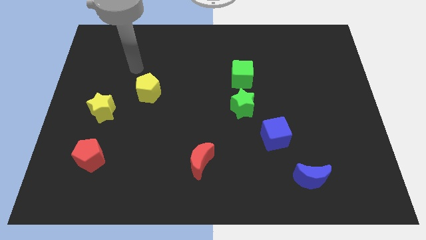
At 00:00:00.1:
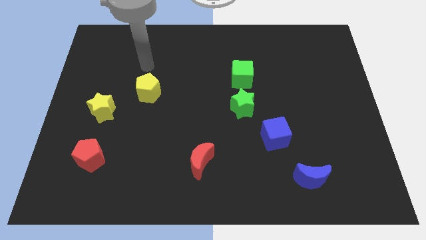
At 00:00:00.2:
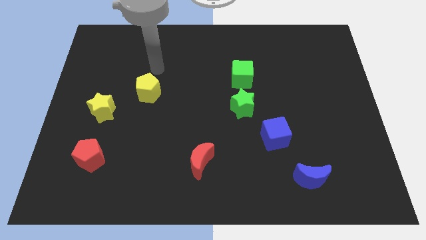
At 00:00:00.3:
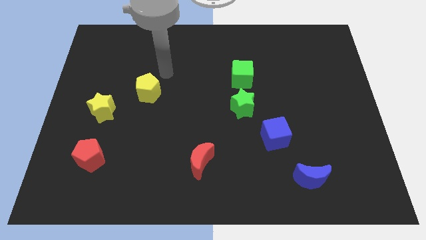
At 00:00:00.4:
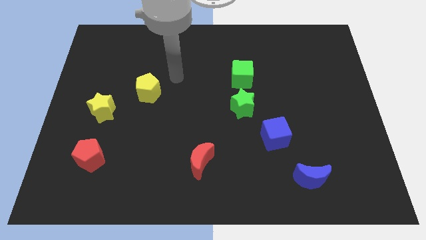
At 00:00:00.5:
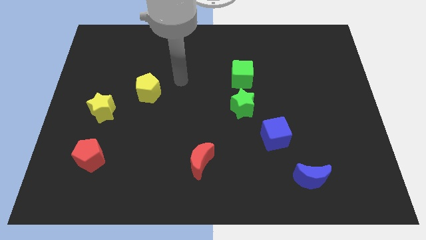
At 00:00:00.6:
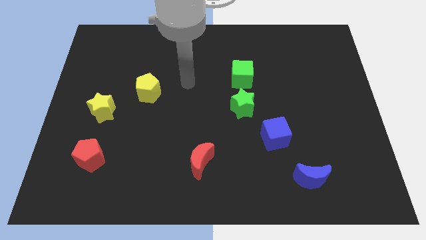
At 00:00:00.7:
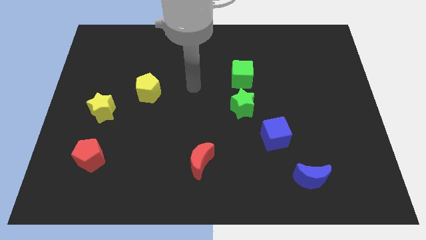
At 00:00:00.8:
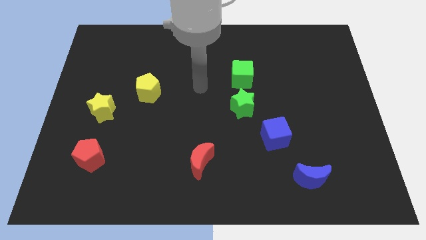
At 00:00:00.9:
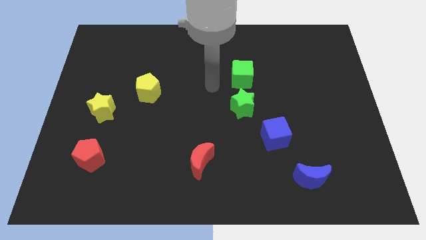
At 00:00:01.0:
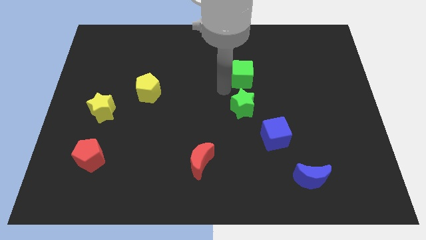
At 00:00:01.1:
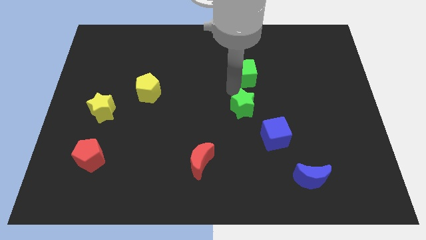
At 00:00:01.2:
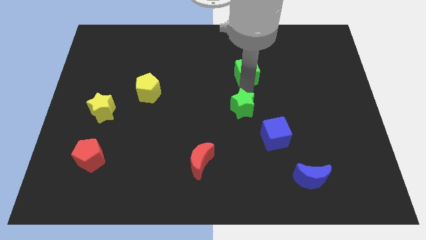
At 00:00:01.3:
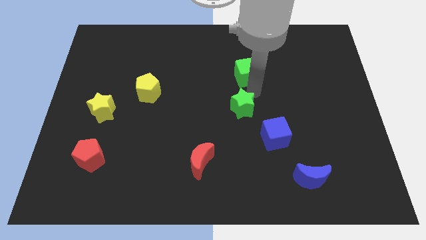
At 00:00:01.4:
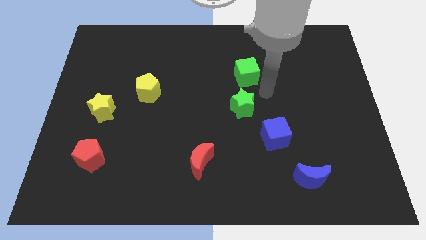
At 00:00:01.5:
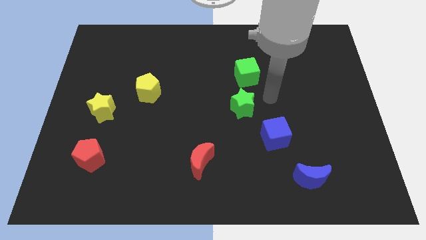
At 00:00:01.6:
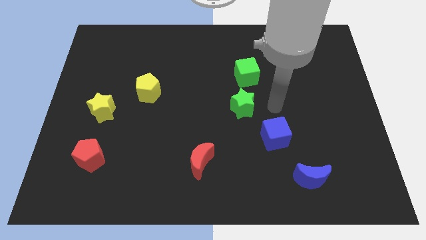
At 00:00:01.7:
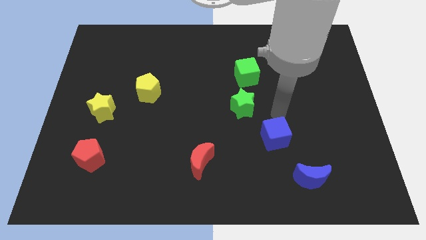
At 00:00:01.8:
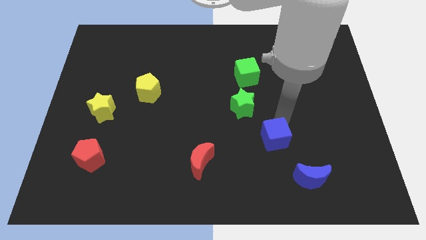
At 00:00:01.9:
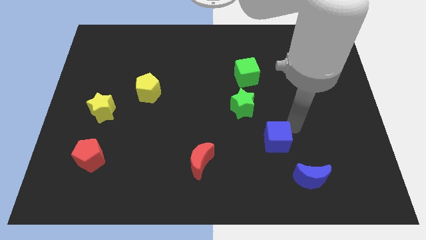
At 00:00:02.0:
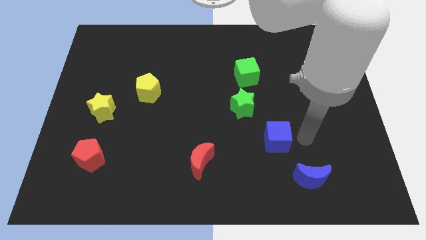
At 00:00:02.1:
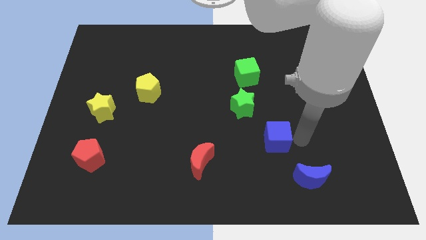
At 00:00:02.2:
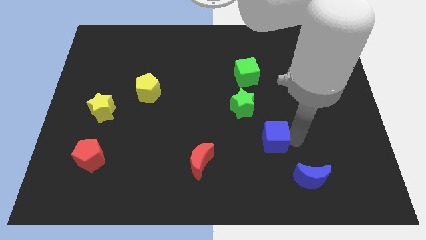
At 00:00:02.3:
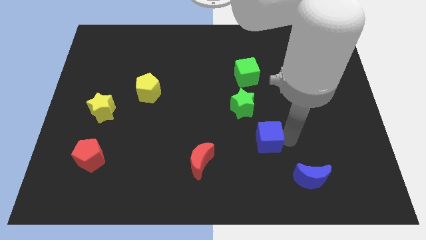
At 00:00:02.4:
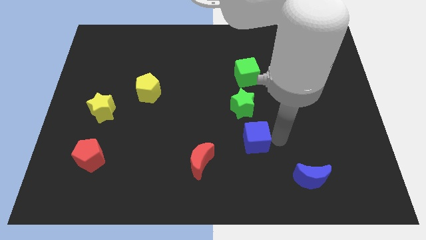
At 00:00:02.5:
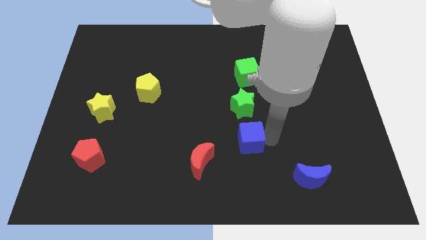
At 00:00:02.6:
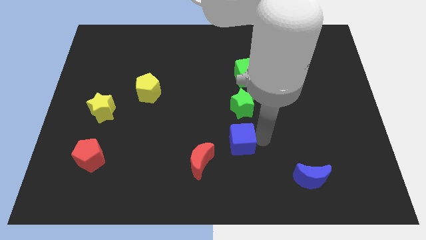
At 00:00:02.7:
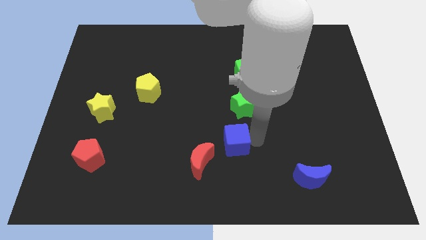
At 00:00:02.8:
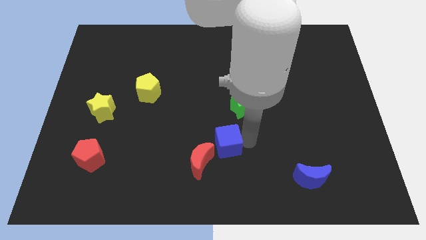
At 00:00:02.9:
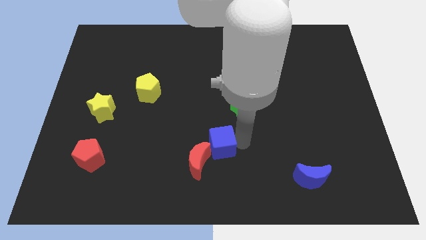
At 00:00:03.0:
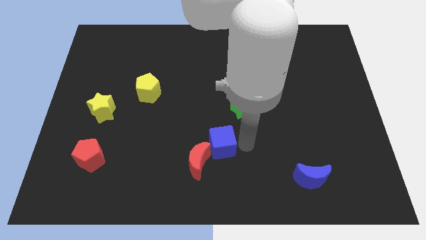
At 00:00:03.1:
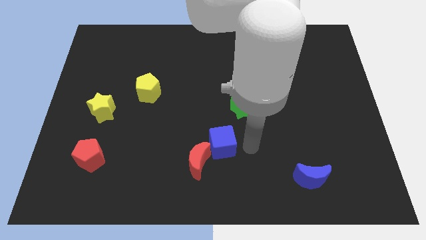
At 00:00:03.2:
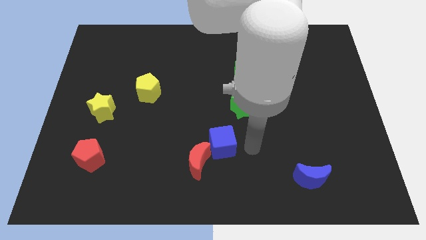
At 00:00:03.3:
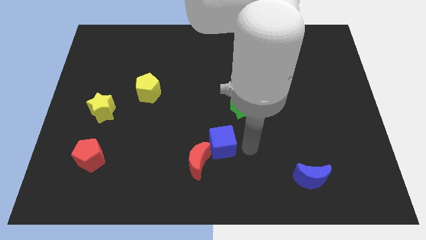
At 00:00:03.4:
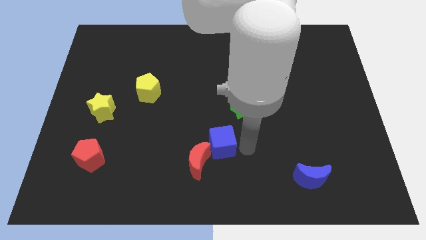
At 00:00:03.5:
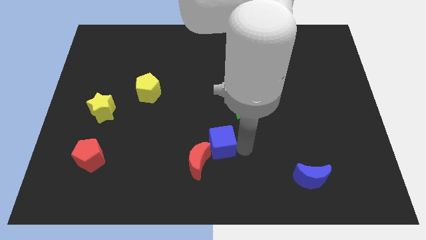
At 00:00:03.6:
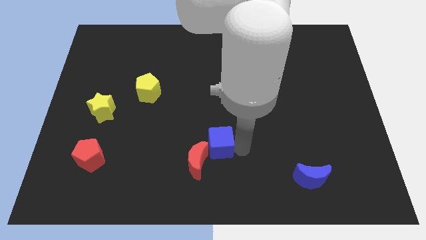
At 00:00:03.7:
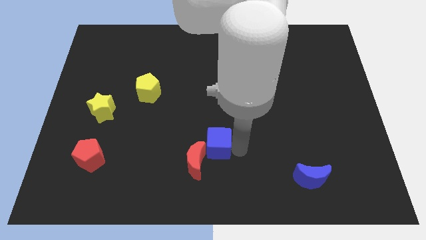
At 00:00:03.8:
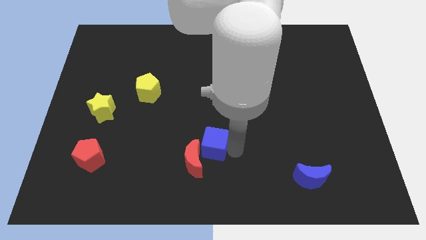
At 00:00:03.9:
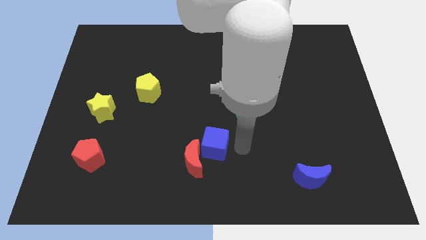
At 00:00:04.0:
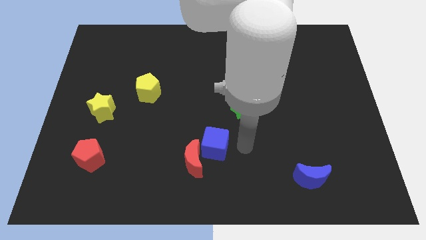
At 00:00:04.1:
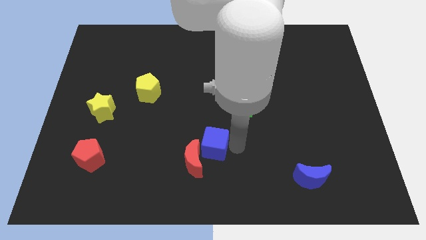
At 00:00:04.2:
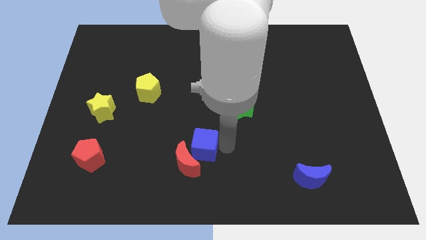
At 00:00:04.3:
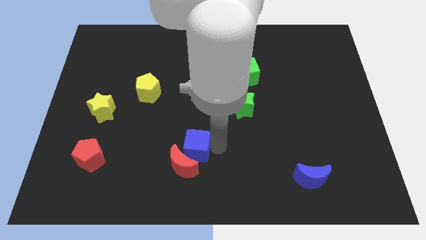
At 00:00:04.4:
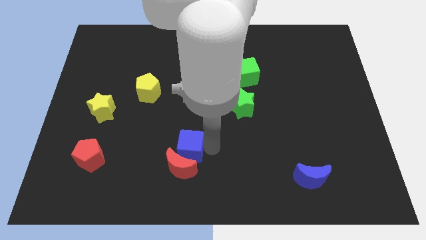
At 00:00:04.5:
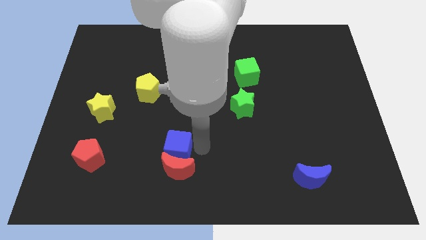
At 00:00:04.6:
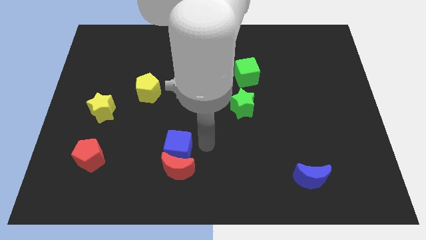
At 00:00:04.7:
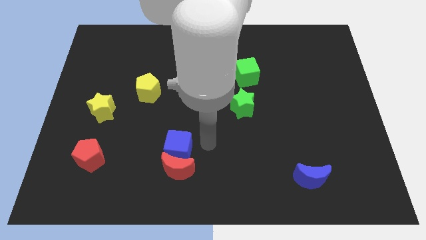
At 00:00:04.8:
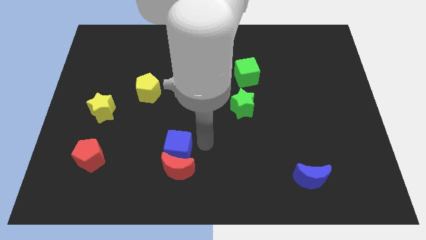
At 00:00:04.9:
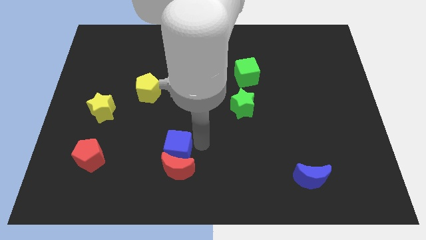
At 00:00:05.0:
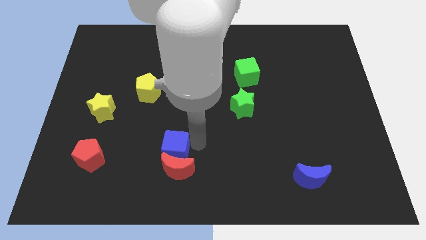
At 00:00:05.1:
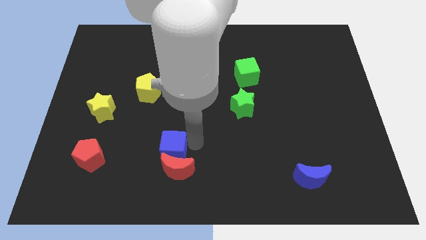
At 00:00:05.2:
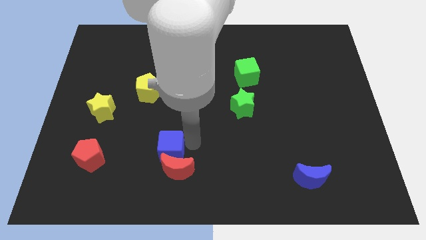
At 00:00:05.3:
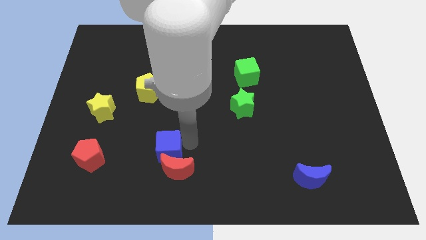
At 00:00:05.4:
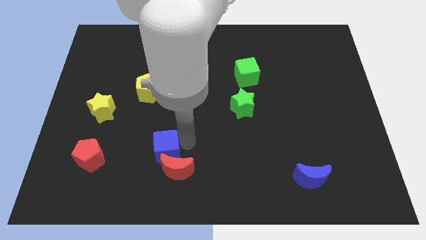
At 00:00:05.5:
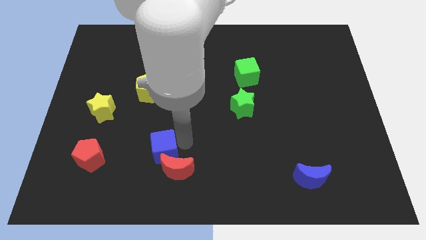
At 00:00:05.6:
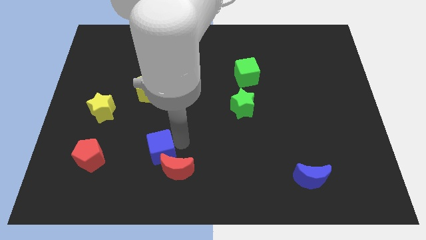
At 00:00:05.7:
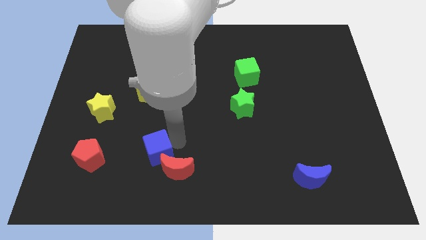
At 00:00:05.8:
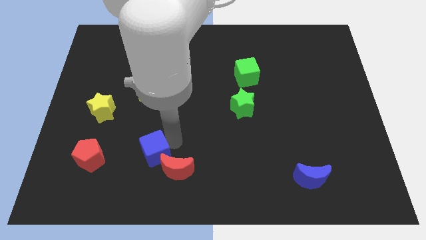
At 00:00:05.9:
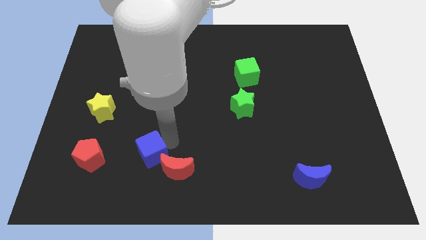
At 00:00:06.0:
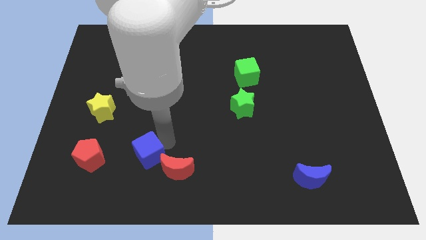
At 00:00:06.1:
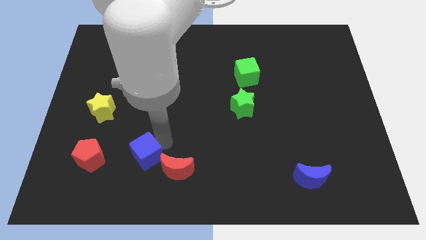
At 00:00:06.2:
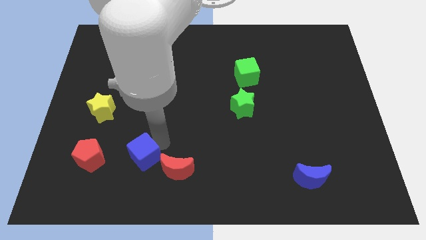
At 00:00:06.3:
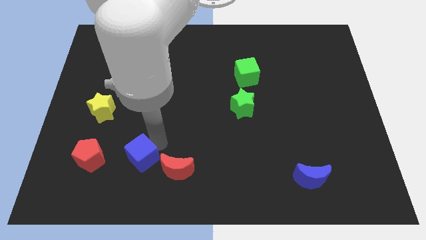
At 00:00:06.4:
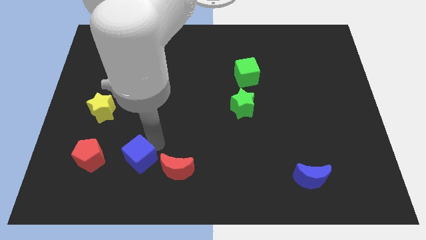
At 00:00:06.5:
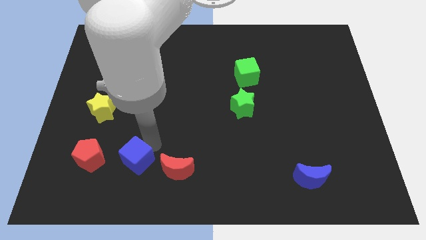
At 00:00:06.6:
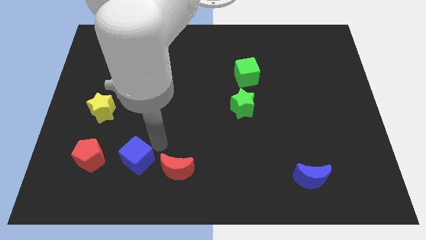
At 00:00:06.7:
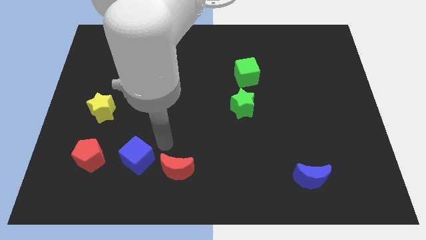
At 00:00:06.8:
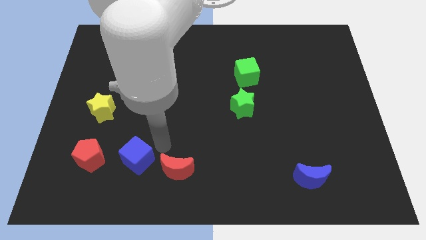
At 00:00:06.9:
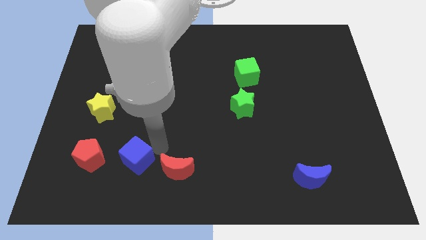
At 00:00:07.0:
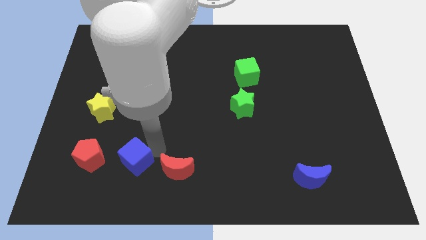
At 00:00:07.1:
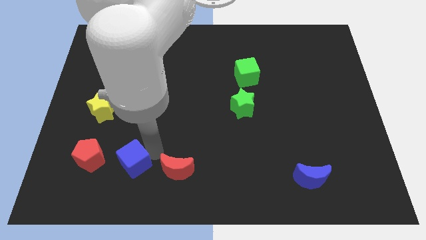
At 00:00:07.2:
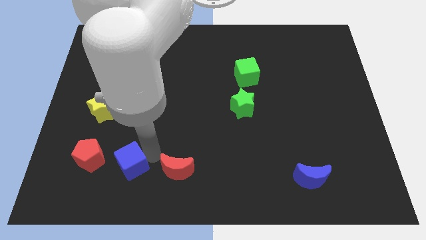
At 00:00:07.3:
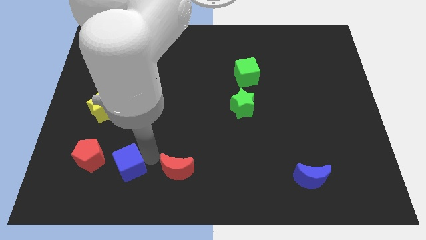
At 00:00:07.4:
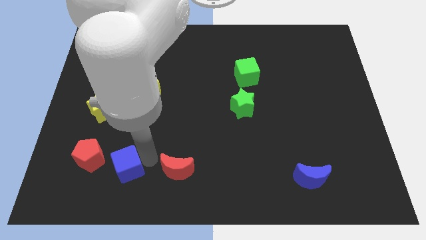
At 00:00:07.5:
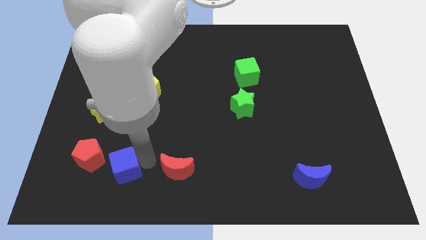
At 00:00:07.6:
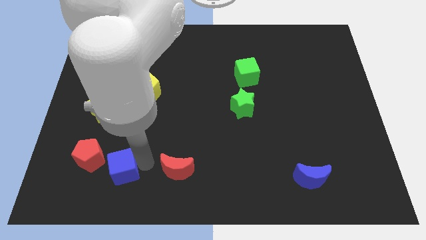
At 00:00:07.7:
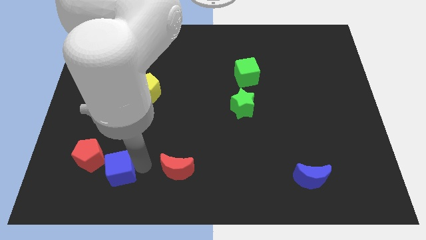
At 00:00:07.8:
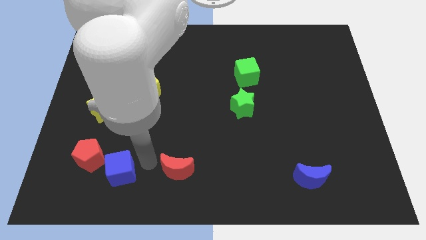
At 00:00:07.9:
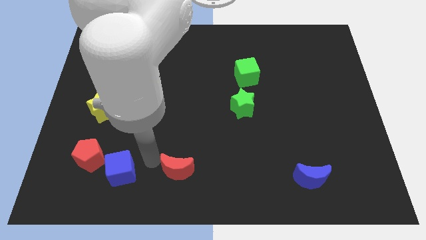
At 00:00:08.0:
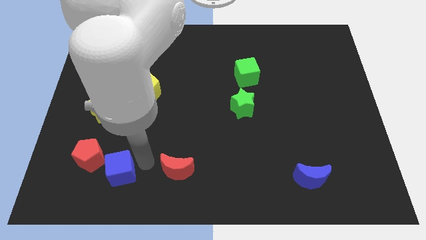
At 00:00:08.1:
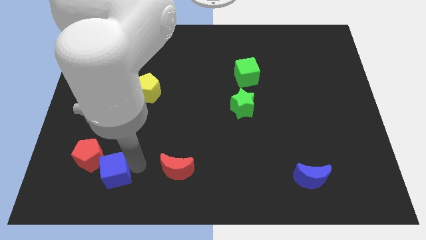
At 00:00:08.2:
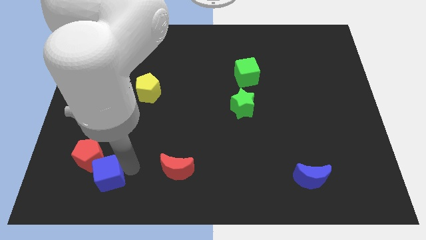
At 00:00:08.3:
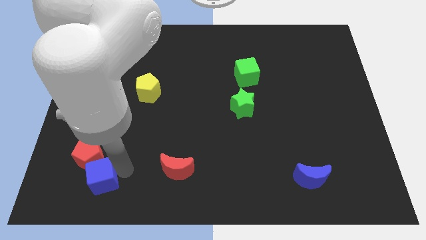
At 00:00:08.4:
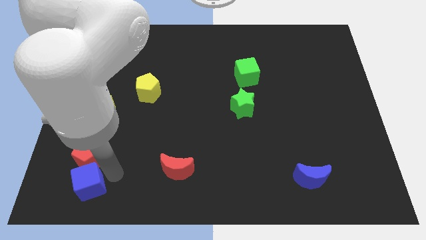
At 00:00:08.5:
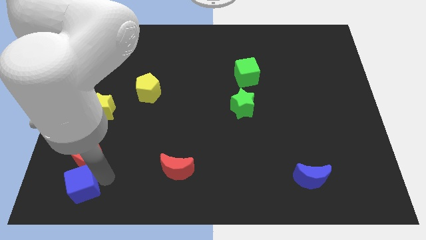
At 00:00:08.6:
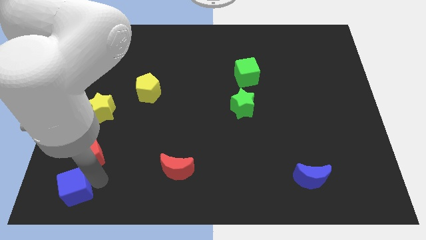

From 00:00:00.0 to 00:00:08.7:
move the blue cube to the bottom left of the board
